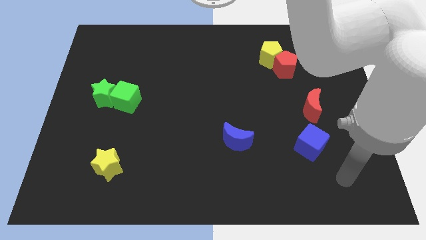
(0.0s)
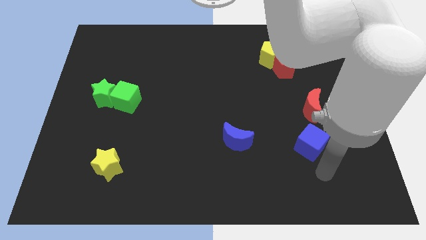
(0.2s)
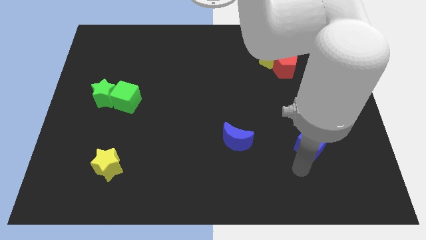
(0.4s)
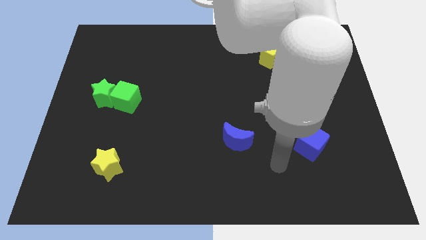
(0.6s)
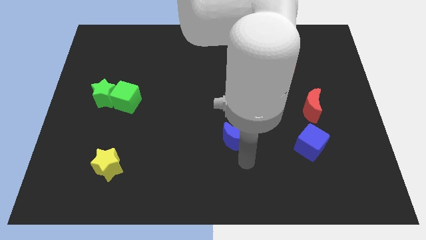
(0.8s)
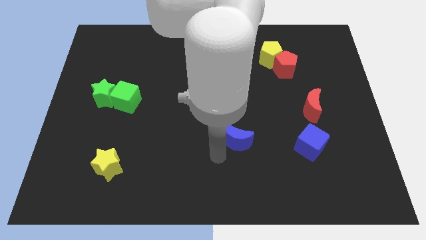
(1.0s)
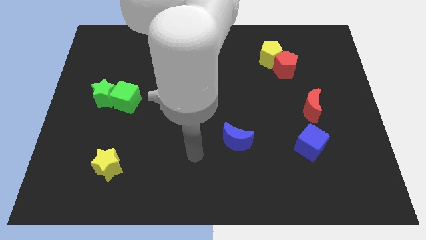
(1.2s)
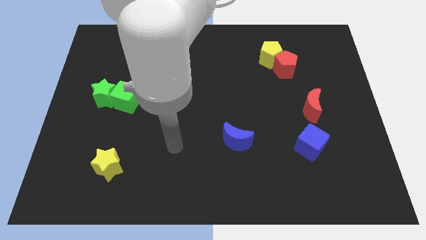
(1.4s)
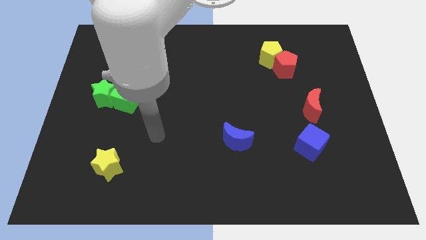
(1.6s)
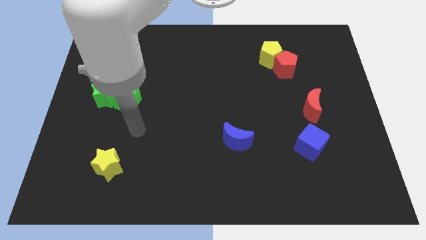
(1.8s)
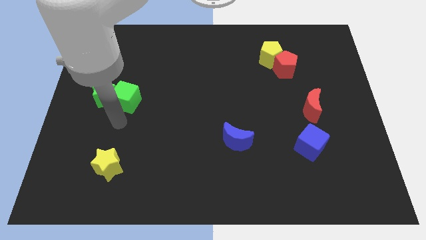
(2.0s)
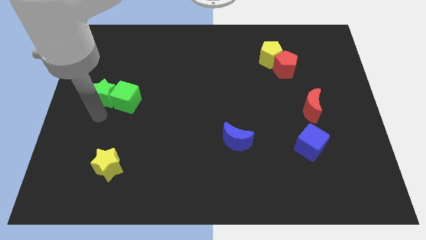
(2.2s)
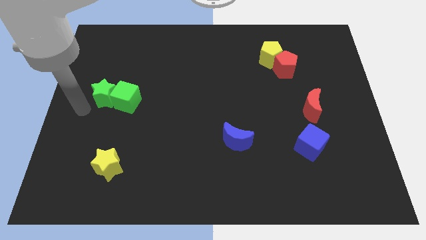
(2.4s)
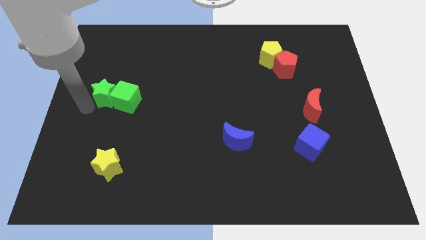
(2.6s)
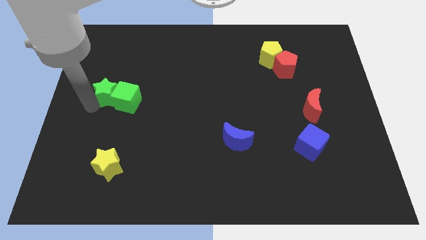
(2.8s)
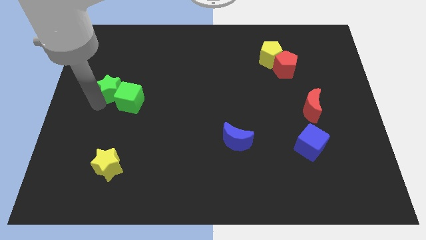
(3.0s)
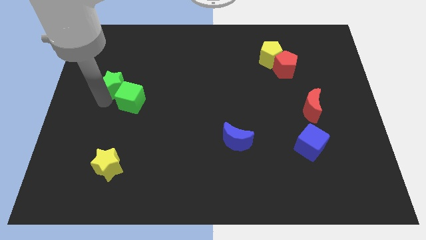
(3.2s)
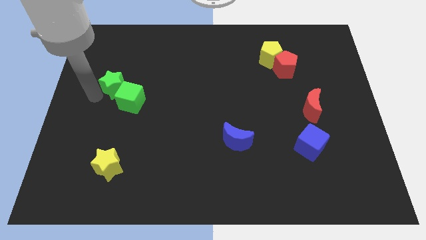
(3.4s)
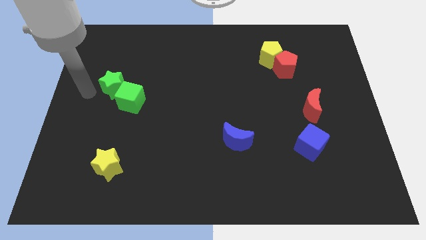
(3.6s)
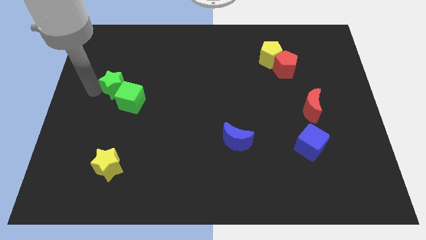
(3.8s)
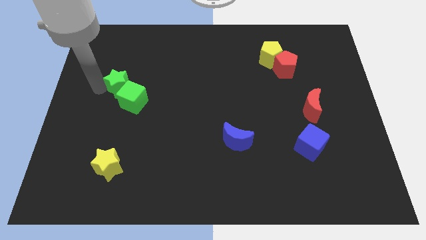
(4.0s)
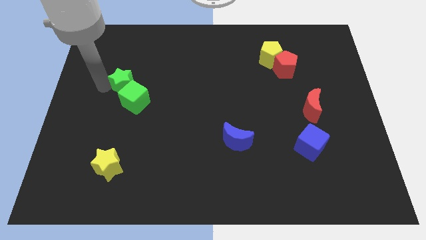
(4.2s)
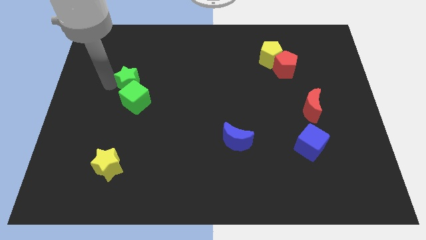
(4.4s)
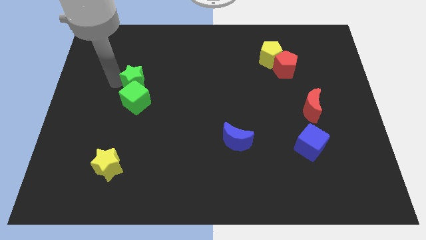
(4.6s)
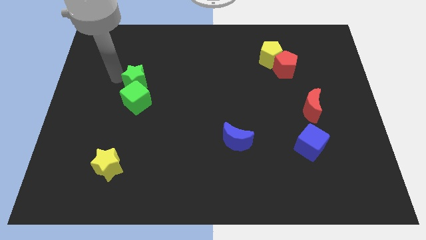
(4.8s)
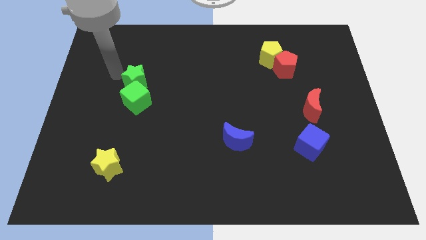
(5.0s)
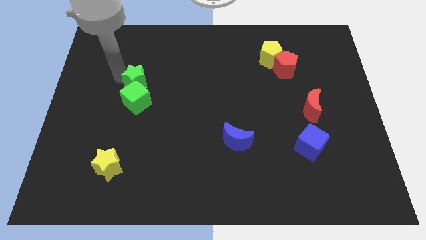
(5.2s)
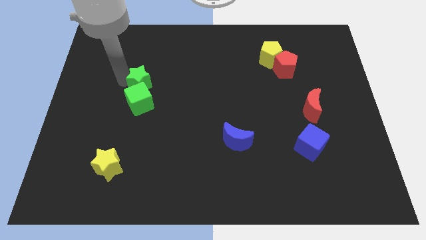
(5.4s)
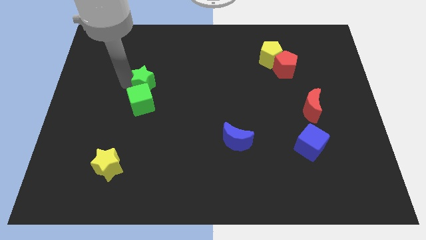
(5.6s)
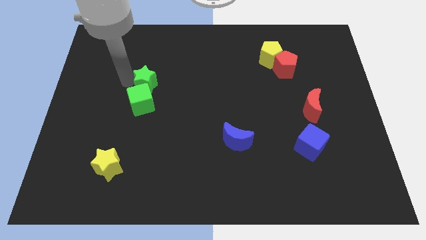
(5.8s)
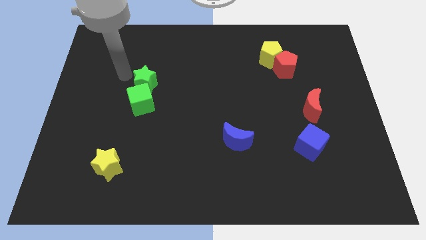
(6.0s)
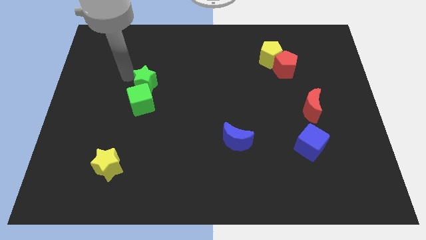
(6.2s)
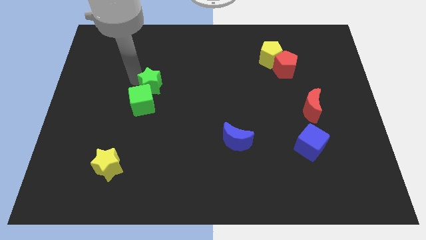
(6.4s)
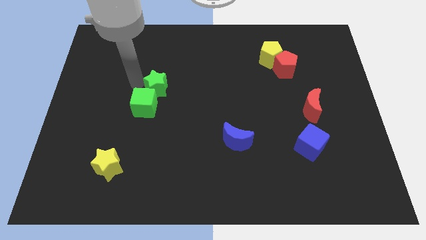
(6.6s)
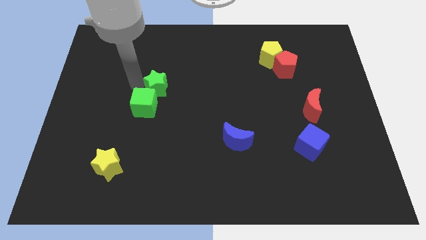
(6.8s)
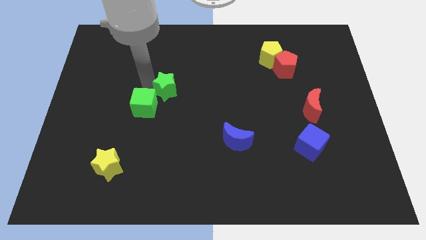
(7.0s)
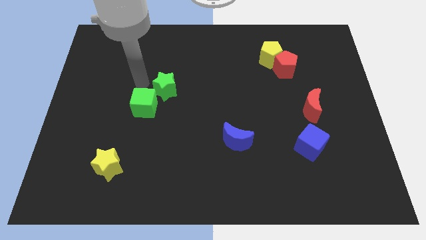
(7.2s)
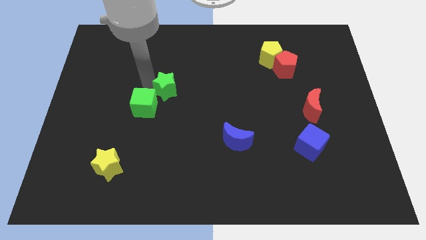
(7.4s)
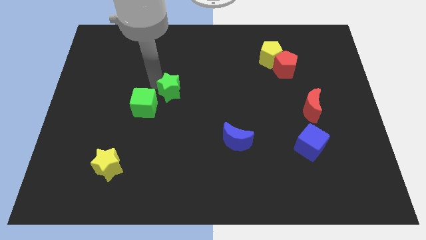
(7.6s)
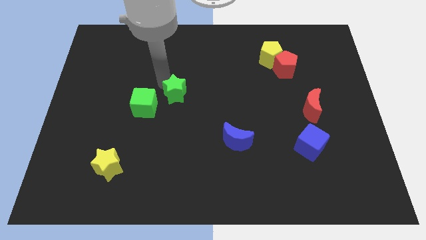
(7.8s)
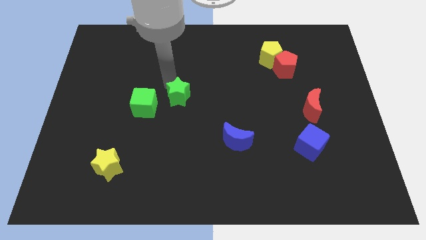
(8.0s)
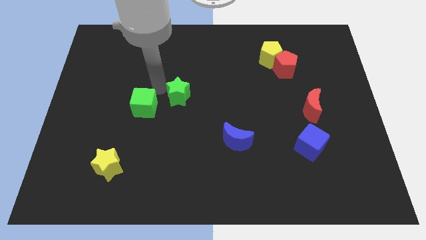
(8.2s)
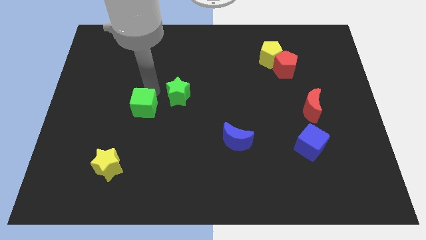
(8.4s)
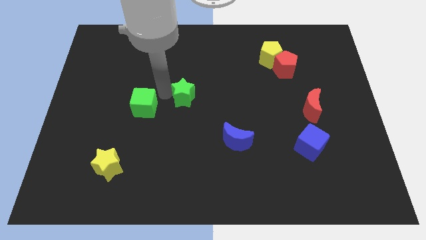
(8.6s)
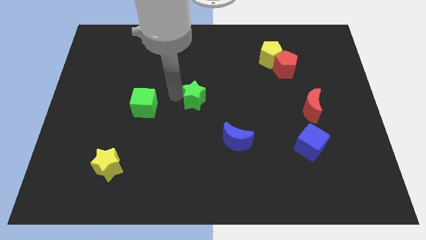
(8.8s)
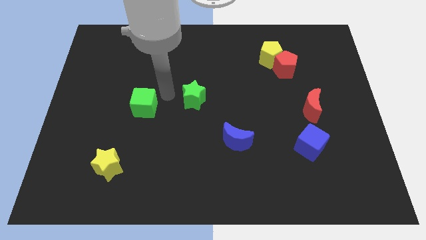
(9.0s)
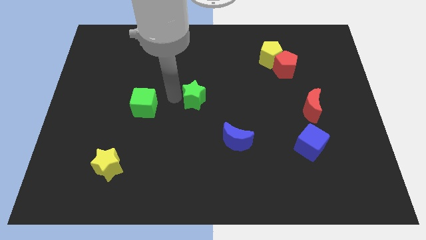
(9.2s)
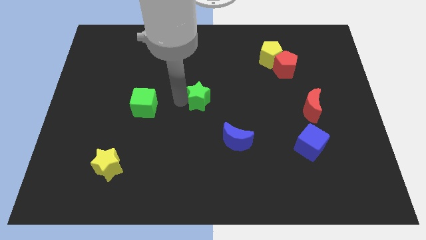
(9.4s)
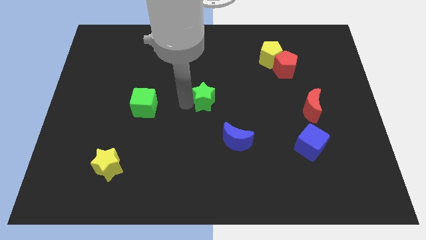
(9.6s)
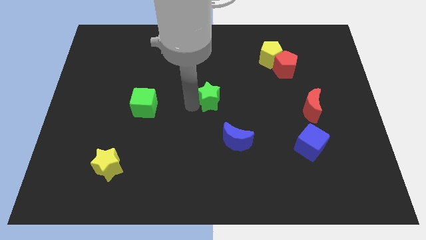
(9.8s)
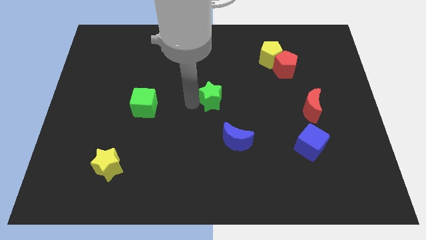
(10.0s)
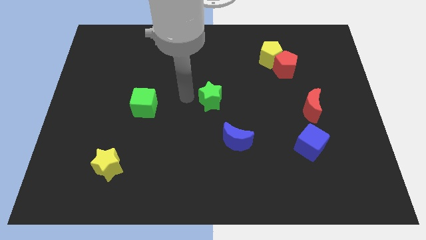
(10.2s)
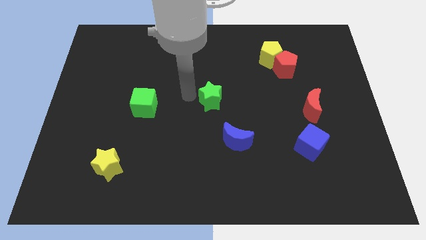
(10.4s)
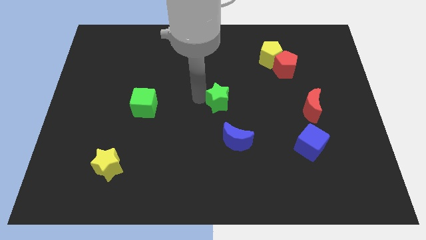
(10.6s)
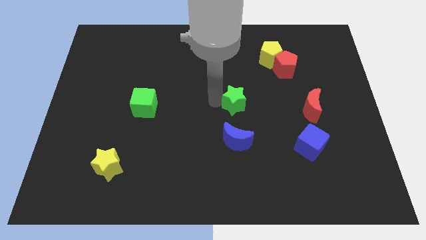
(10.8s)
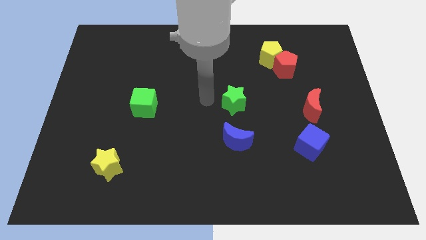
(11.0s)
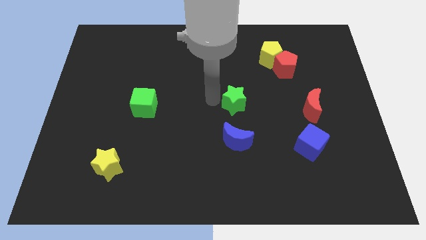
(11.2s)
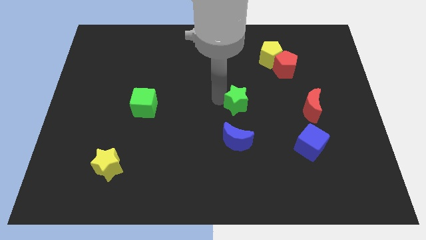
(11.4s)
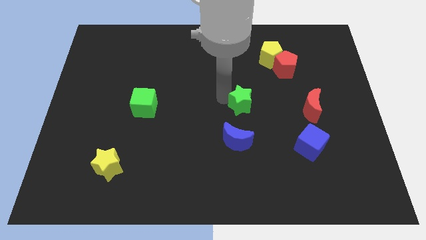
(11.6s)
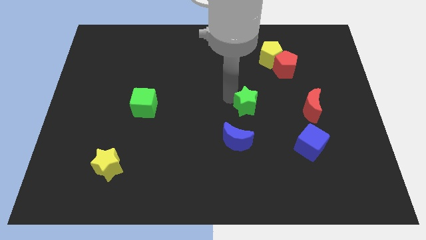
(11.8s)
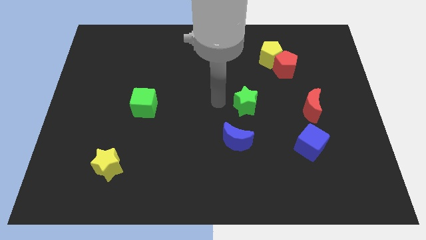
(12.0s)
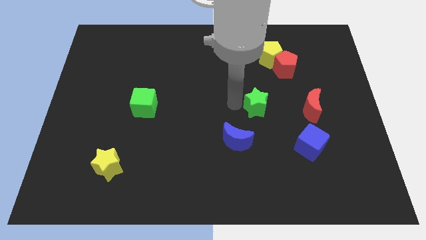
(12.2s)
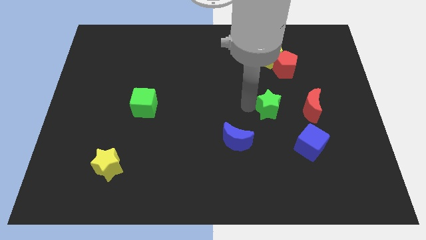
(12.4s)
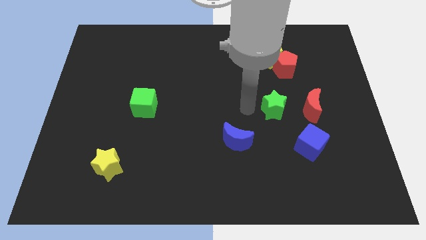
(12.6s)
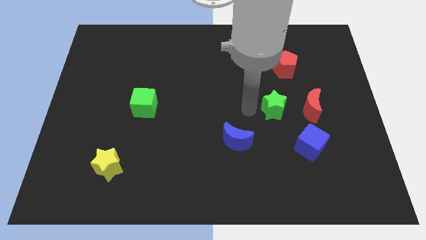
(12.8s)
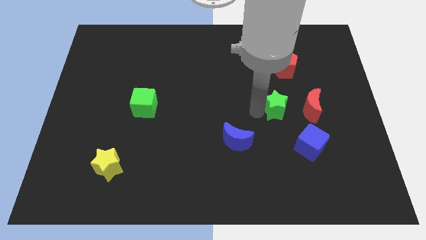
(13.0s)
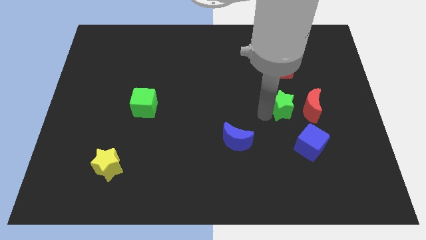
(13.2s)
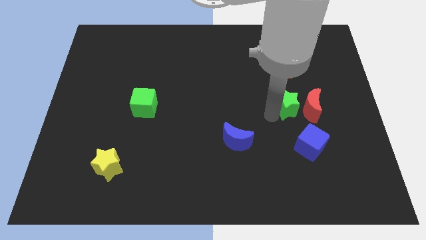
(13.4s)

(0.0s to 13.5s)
move the green star next to the red moon
